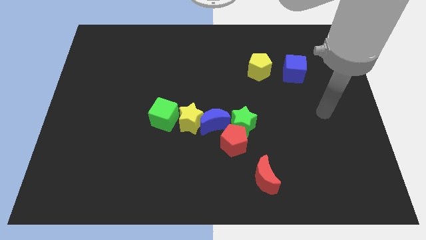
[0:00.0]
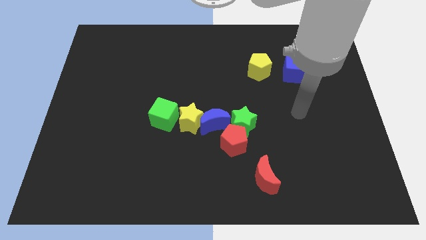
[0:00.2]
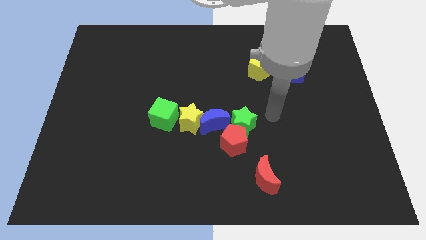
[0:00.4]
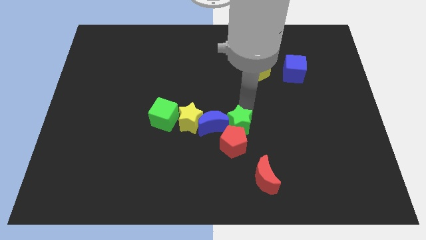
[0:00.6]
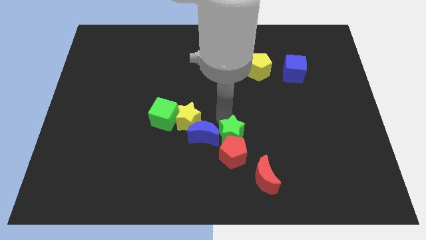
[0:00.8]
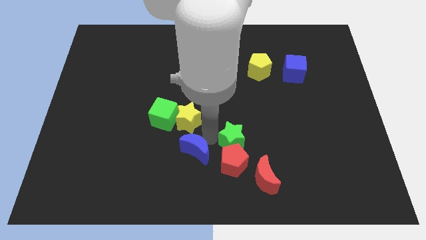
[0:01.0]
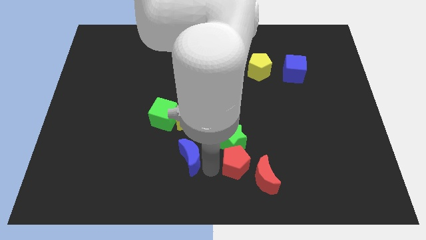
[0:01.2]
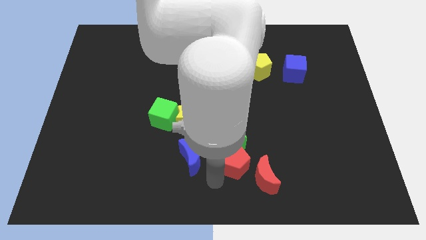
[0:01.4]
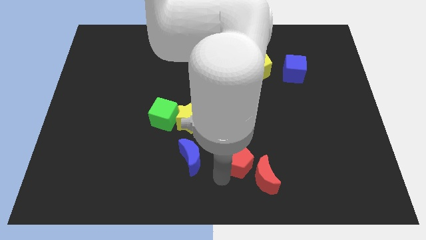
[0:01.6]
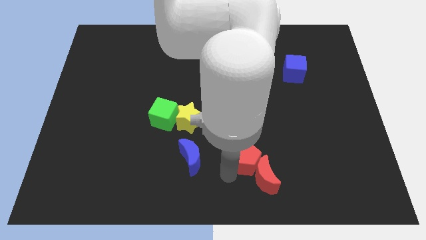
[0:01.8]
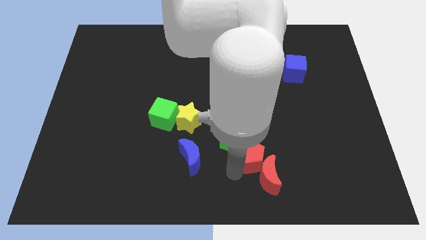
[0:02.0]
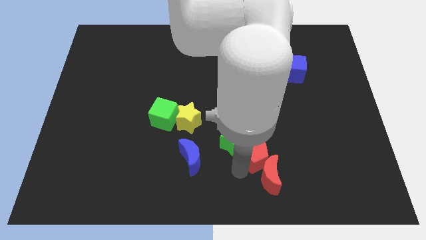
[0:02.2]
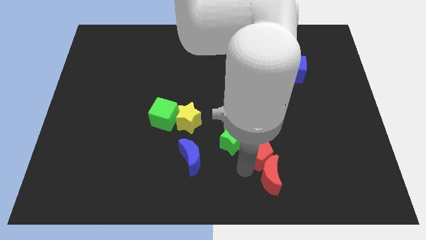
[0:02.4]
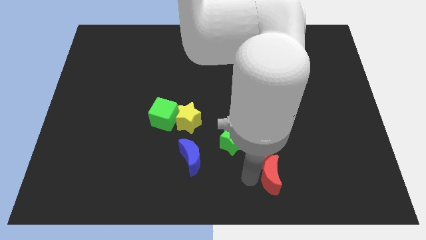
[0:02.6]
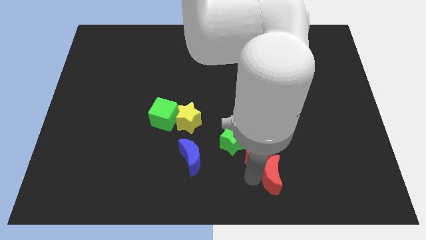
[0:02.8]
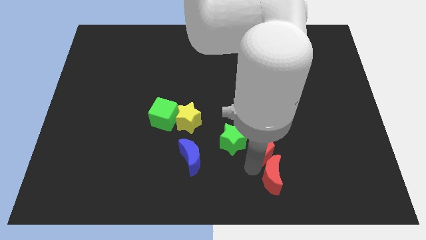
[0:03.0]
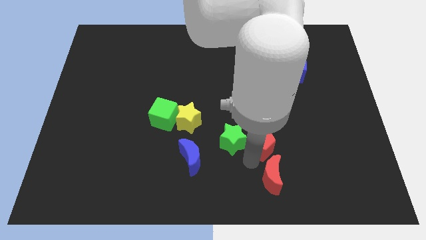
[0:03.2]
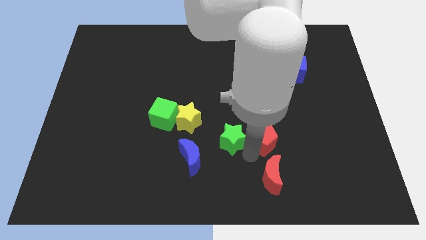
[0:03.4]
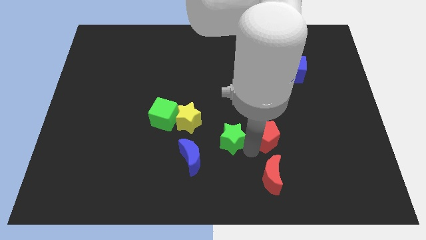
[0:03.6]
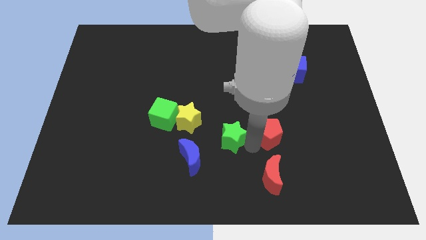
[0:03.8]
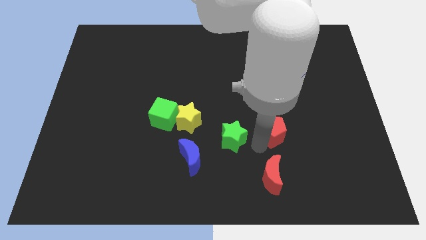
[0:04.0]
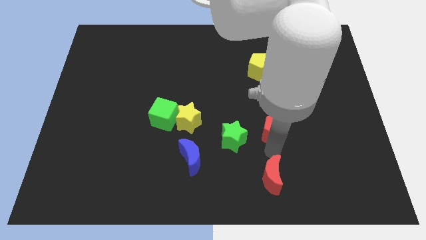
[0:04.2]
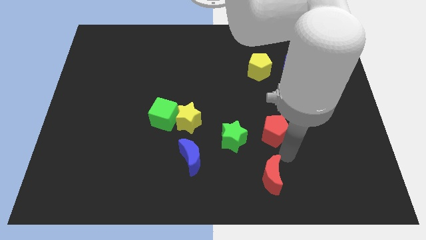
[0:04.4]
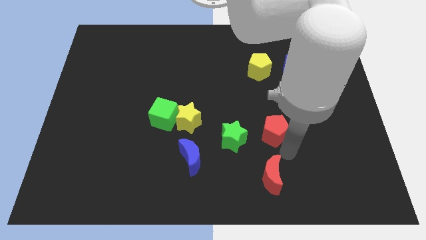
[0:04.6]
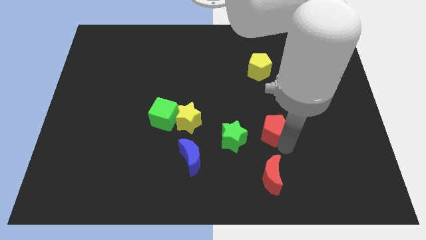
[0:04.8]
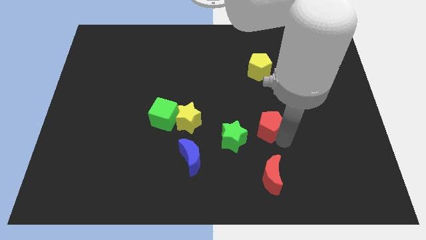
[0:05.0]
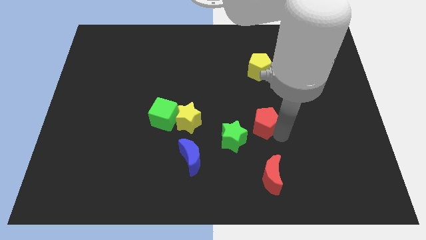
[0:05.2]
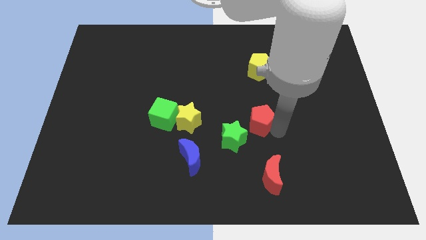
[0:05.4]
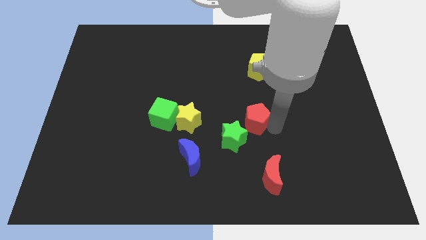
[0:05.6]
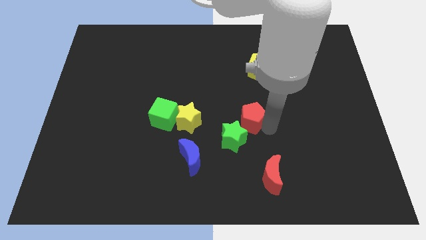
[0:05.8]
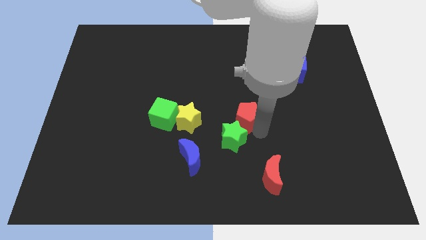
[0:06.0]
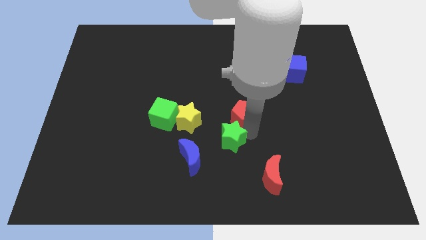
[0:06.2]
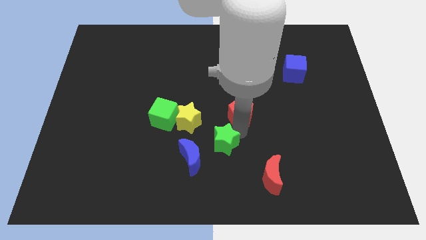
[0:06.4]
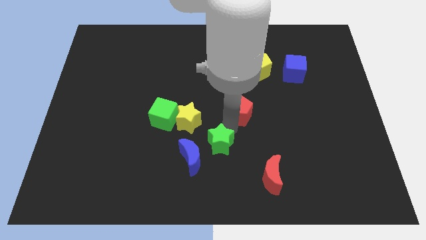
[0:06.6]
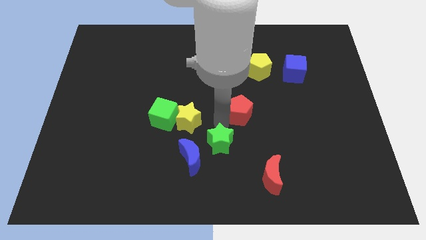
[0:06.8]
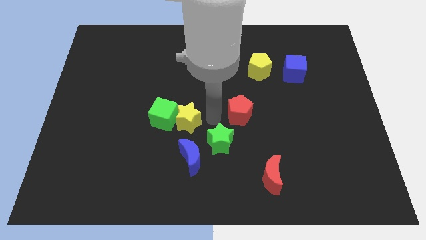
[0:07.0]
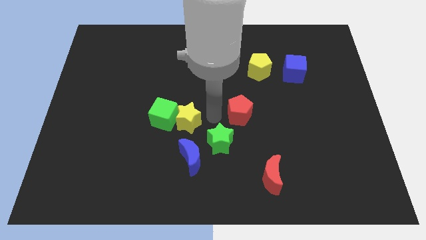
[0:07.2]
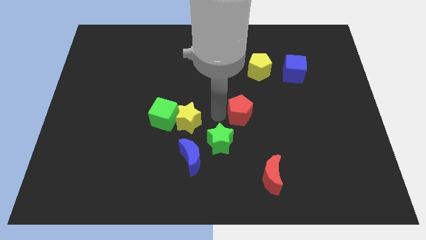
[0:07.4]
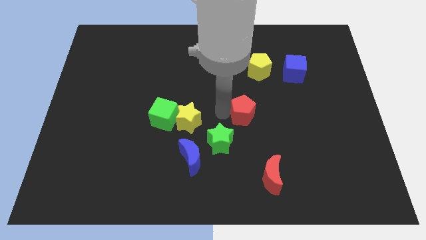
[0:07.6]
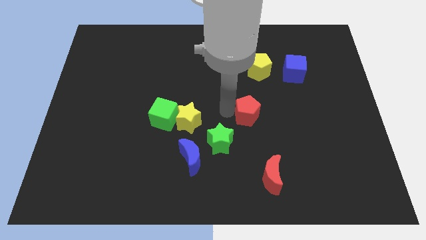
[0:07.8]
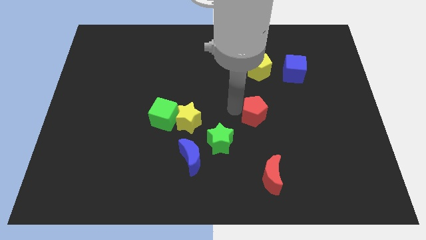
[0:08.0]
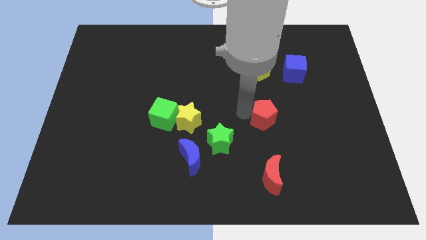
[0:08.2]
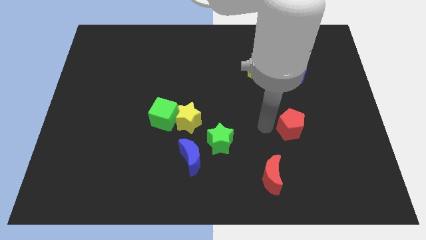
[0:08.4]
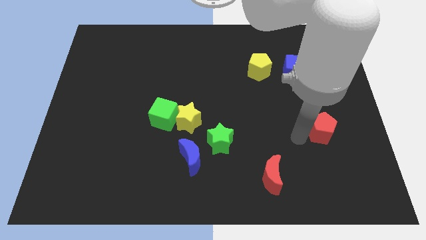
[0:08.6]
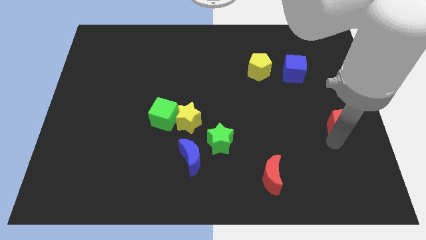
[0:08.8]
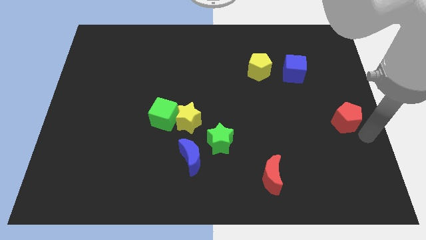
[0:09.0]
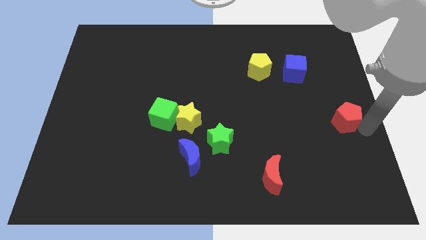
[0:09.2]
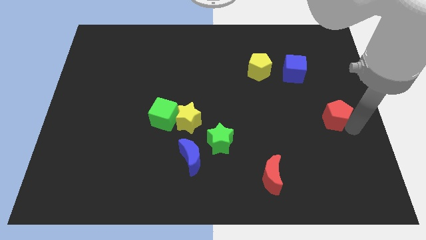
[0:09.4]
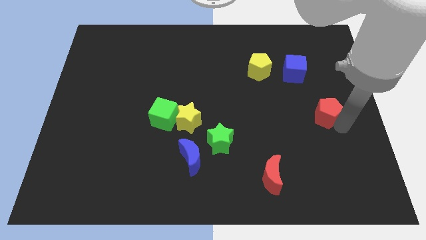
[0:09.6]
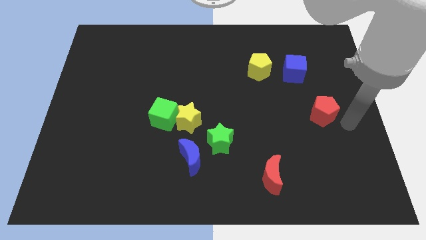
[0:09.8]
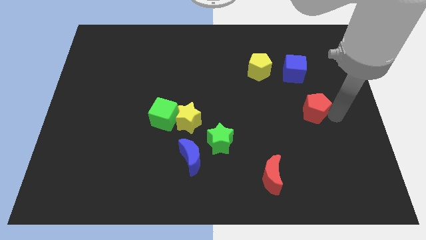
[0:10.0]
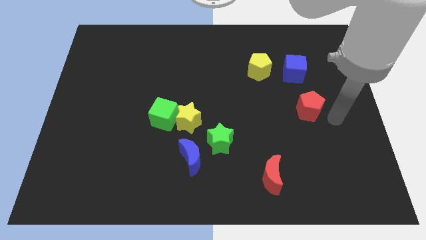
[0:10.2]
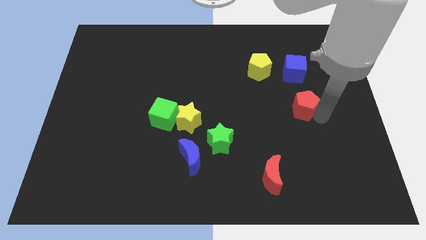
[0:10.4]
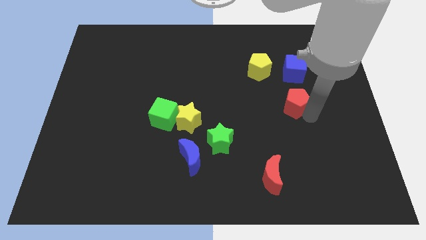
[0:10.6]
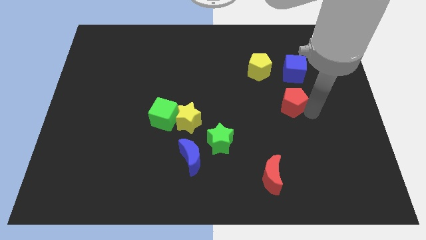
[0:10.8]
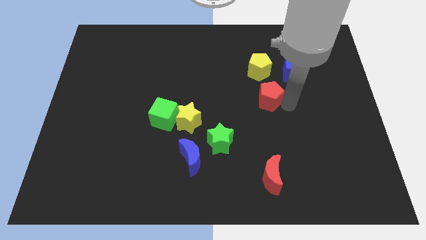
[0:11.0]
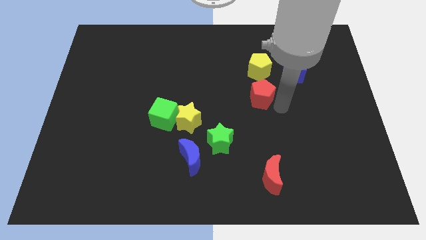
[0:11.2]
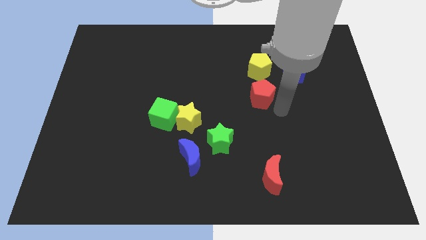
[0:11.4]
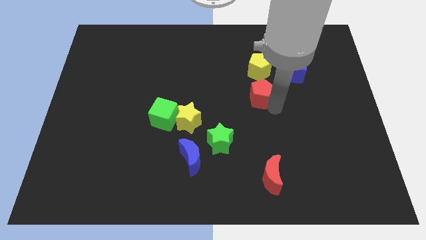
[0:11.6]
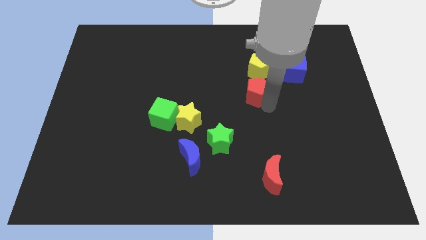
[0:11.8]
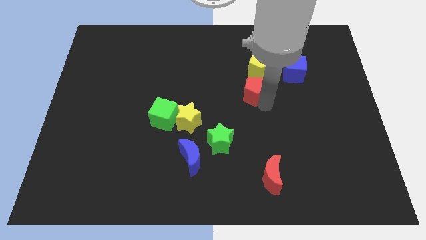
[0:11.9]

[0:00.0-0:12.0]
slide the red pentagon to the bottom left side of the yellow pentagon
